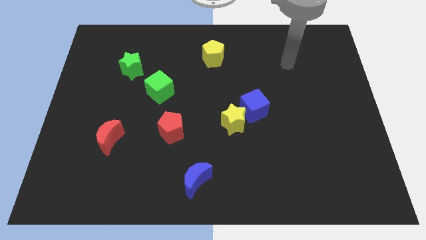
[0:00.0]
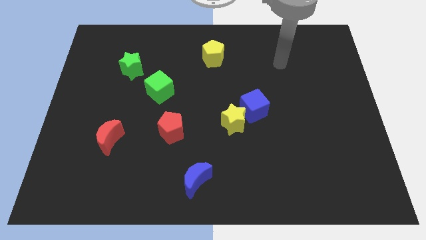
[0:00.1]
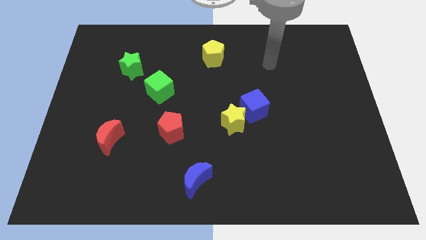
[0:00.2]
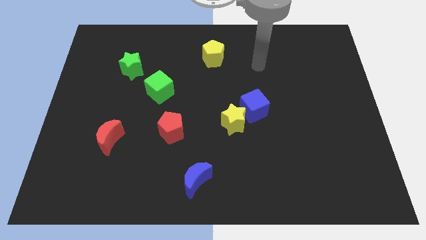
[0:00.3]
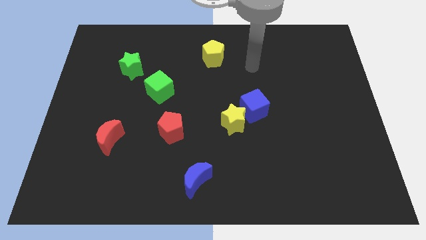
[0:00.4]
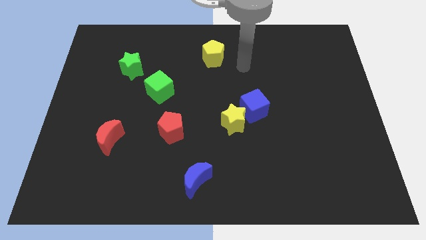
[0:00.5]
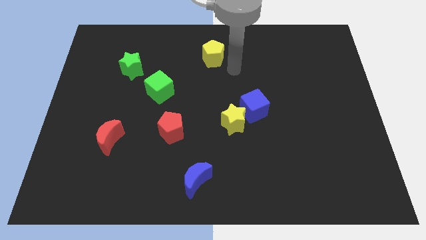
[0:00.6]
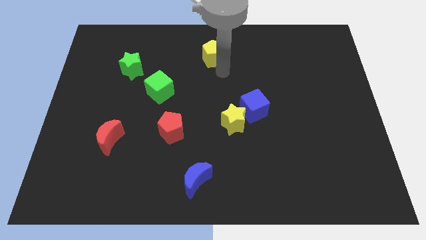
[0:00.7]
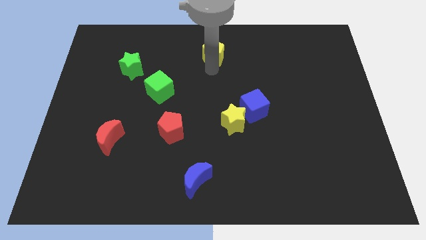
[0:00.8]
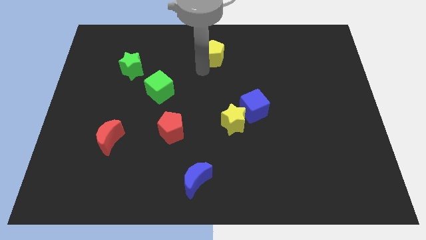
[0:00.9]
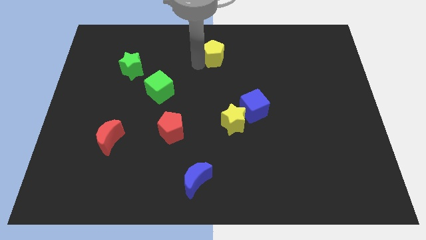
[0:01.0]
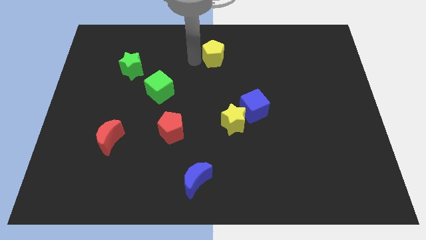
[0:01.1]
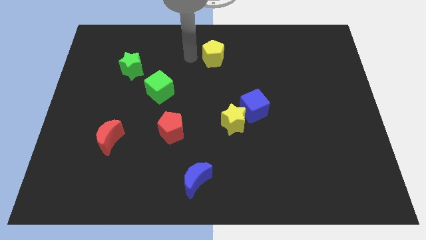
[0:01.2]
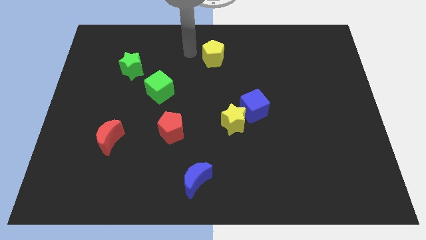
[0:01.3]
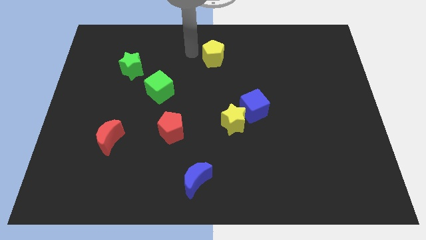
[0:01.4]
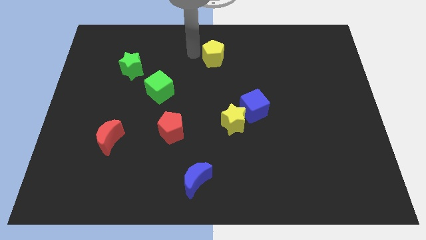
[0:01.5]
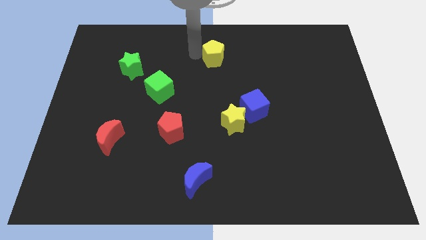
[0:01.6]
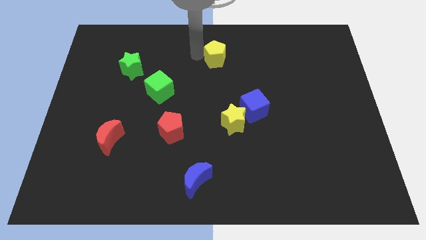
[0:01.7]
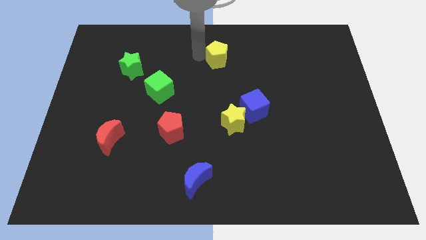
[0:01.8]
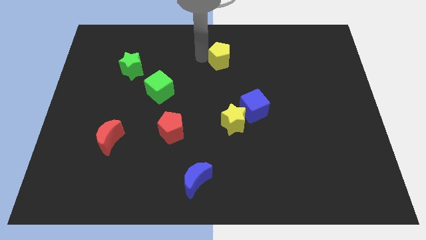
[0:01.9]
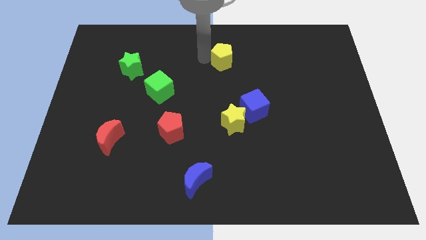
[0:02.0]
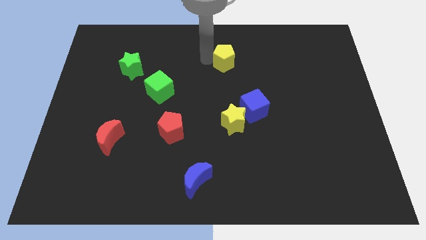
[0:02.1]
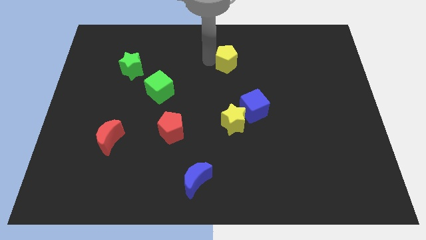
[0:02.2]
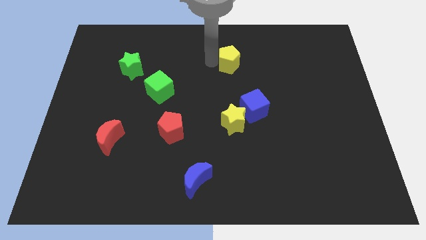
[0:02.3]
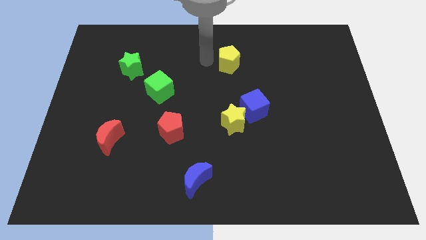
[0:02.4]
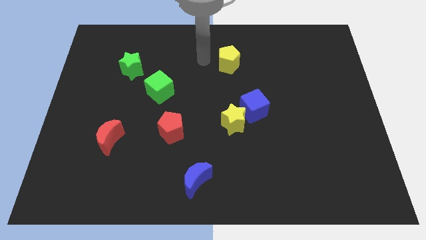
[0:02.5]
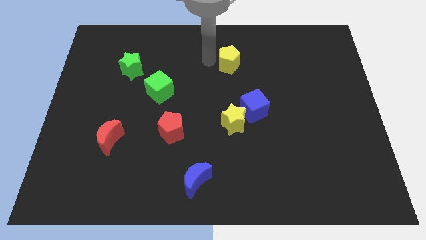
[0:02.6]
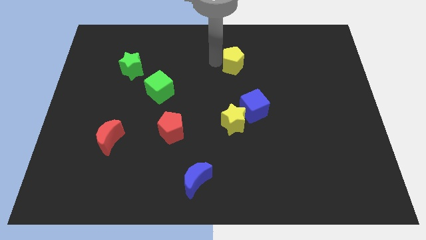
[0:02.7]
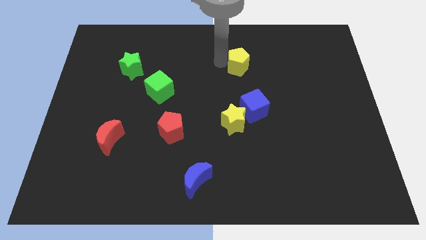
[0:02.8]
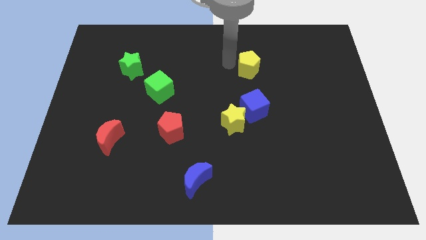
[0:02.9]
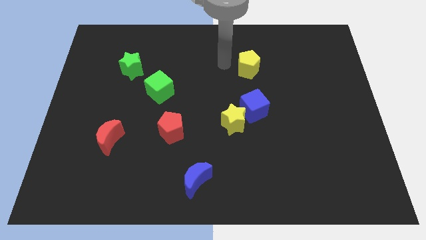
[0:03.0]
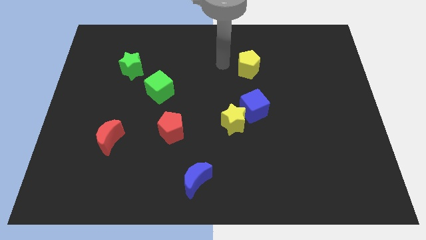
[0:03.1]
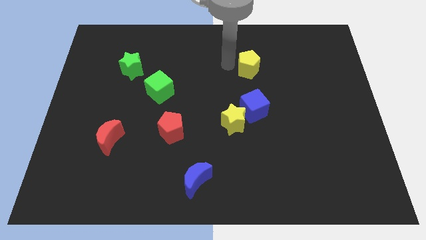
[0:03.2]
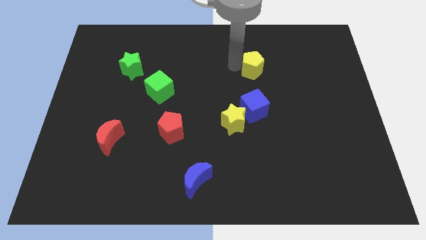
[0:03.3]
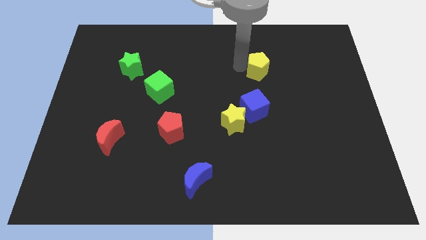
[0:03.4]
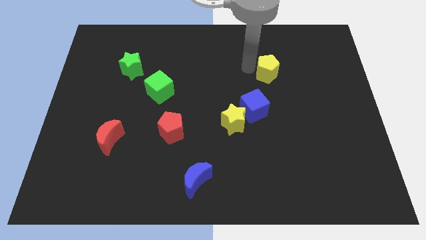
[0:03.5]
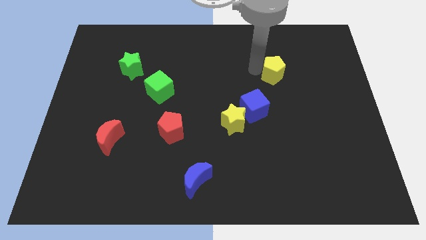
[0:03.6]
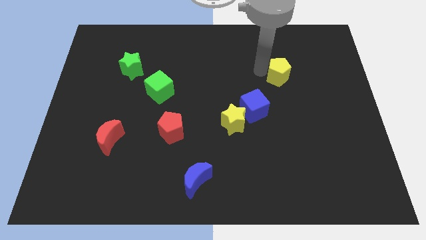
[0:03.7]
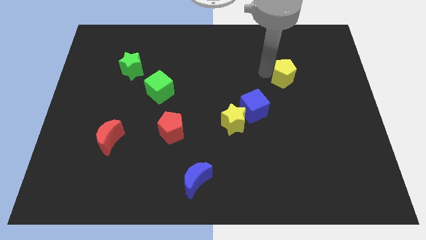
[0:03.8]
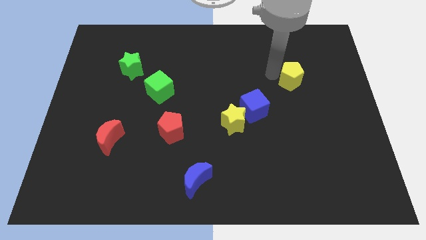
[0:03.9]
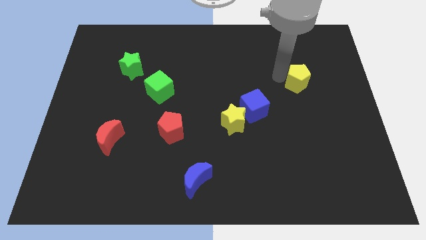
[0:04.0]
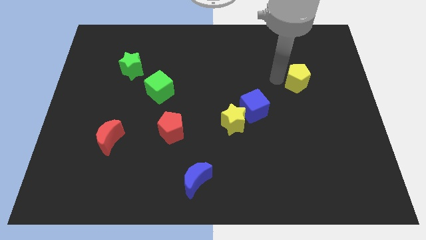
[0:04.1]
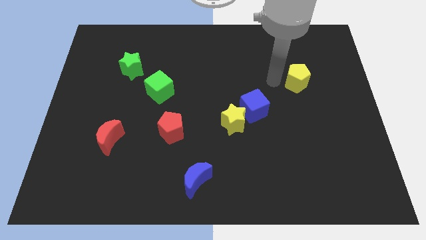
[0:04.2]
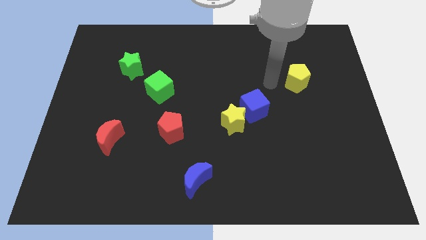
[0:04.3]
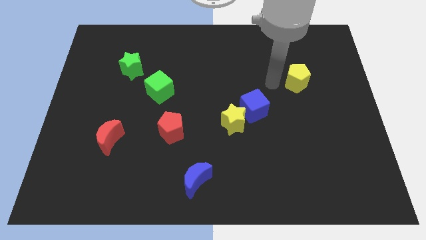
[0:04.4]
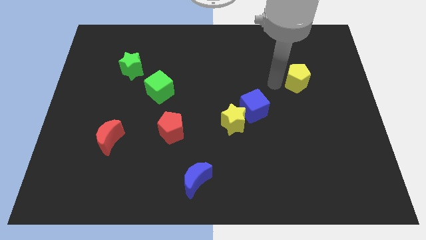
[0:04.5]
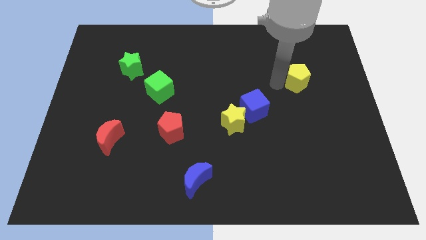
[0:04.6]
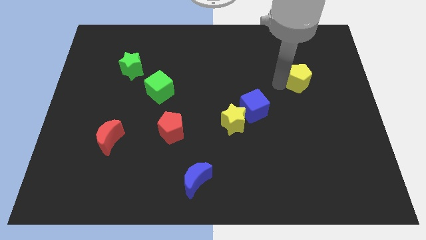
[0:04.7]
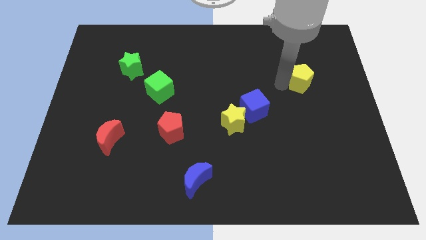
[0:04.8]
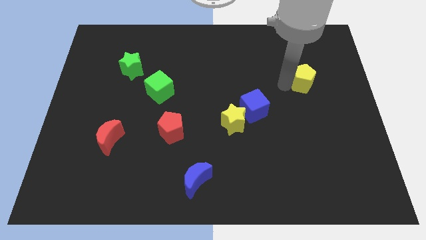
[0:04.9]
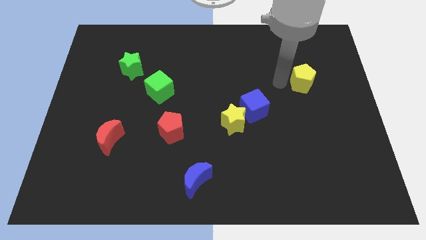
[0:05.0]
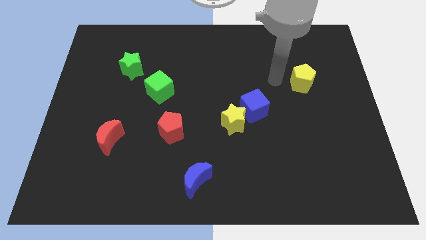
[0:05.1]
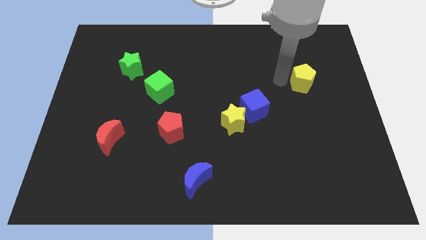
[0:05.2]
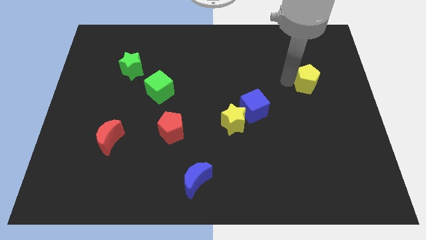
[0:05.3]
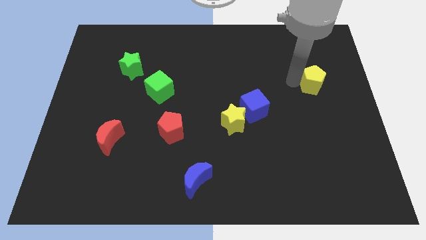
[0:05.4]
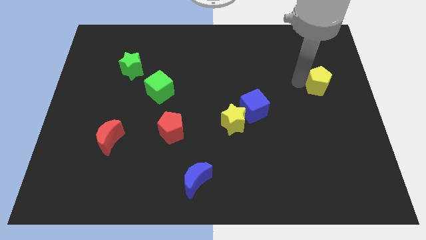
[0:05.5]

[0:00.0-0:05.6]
slide the yellow pentagon to the right side of the board
